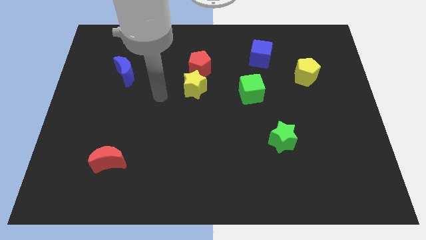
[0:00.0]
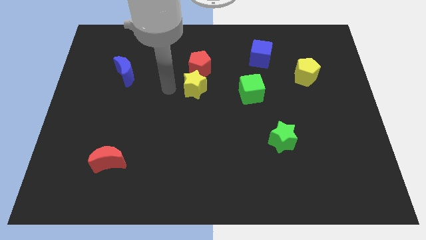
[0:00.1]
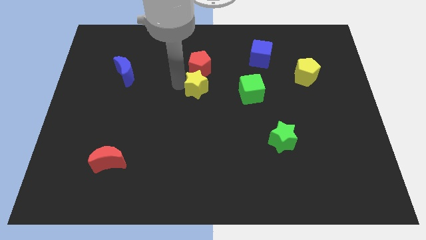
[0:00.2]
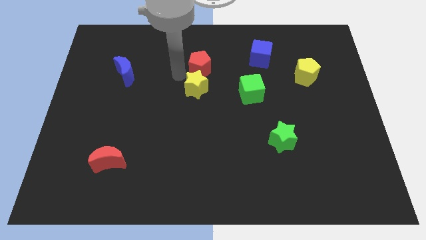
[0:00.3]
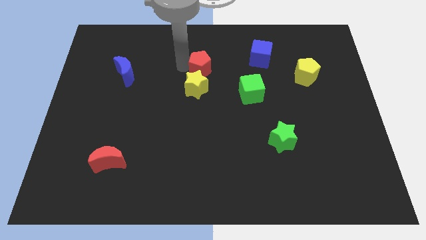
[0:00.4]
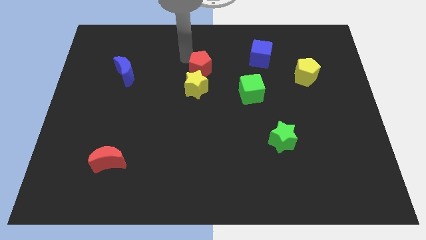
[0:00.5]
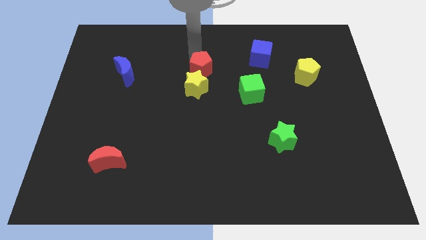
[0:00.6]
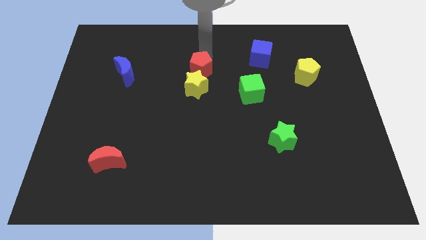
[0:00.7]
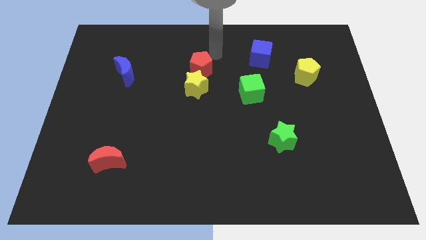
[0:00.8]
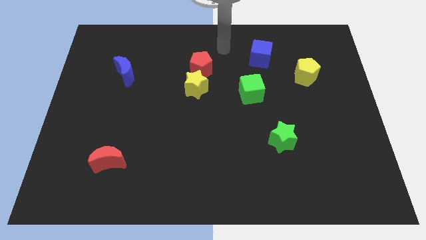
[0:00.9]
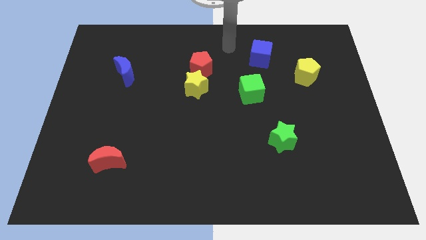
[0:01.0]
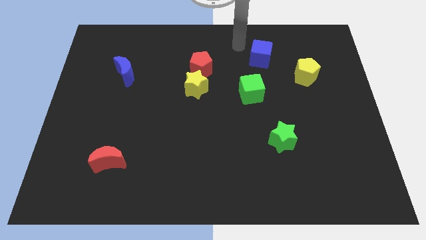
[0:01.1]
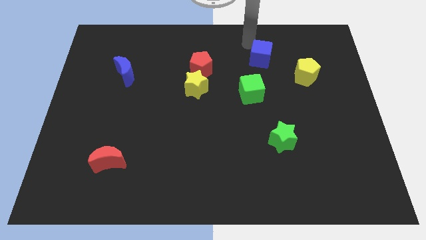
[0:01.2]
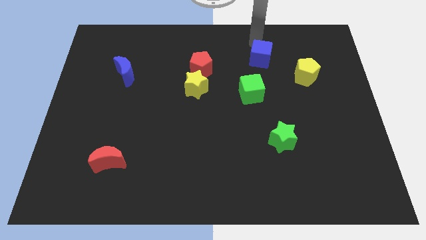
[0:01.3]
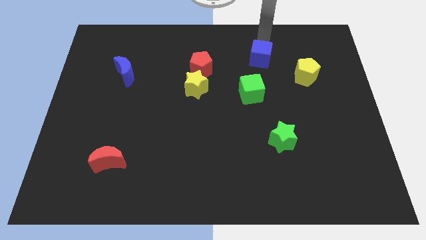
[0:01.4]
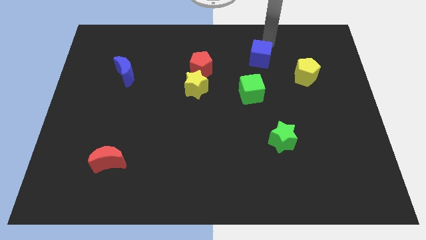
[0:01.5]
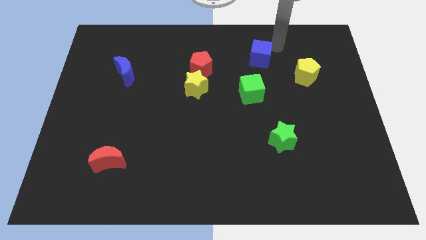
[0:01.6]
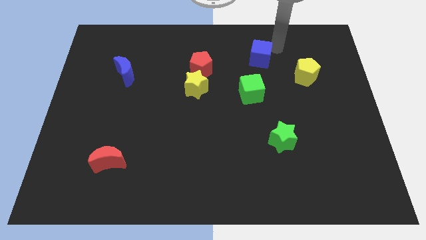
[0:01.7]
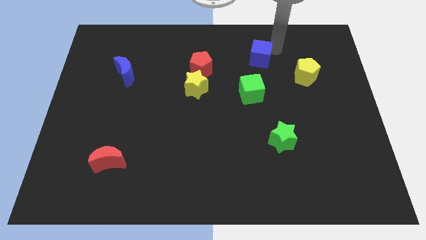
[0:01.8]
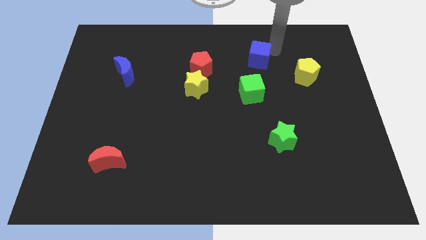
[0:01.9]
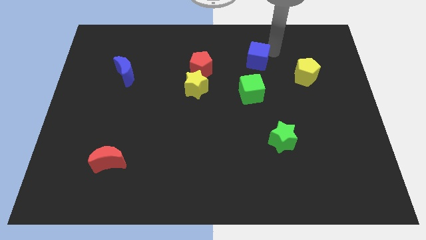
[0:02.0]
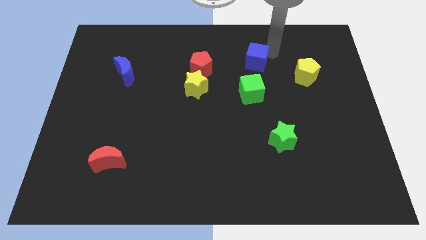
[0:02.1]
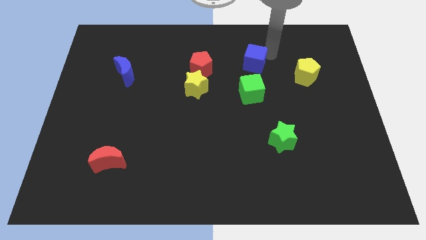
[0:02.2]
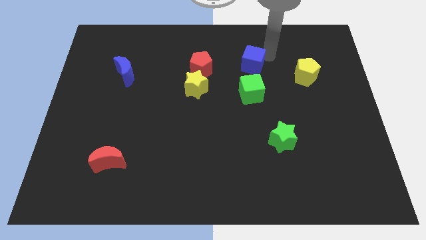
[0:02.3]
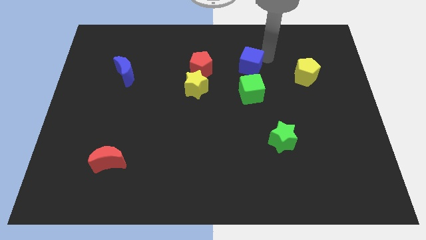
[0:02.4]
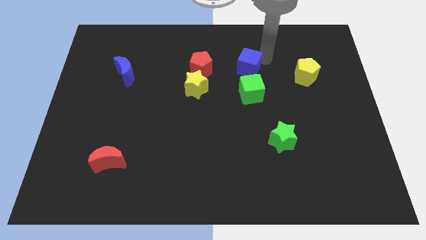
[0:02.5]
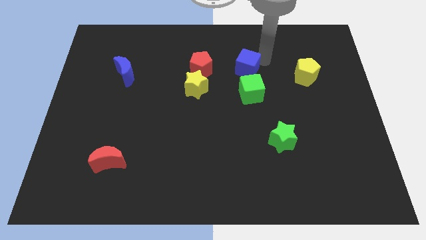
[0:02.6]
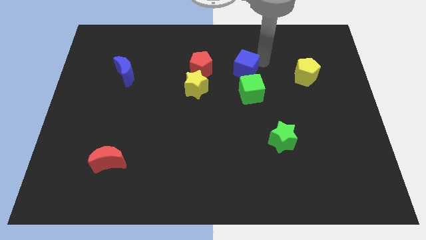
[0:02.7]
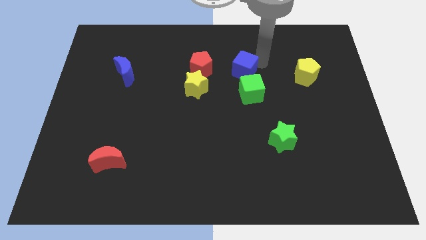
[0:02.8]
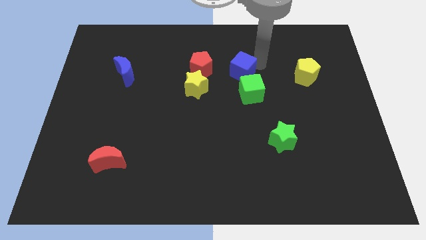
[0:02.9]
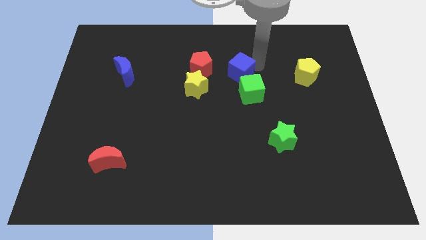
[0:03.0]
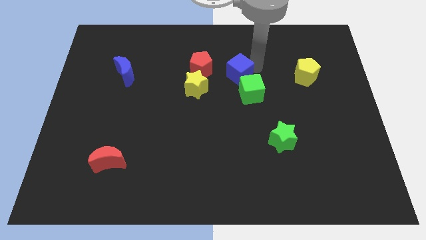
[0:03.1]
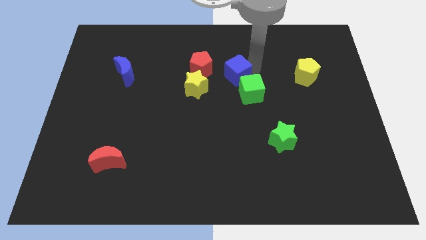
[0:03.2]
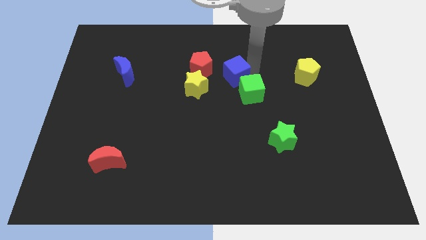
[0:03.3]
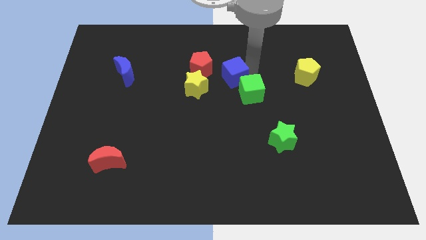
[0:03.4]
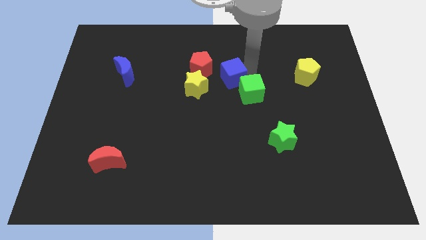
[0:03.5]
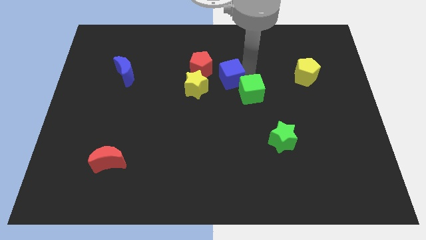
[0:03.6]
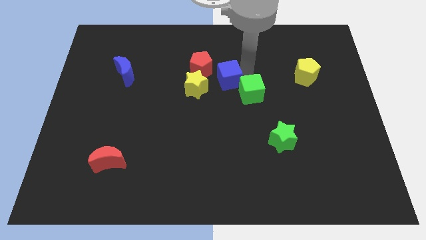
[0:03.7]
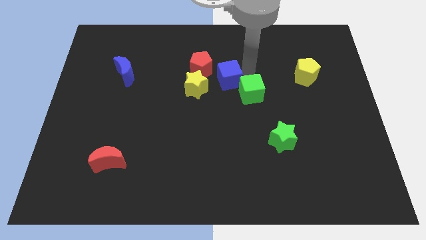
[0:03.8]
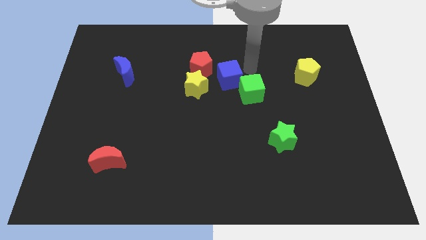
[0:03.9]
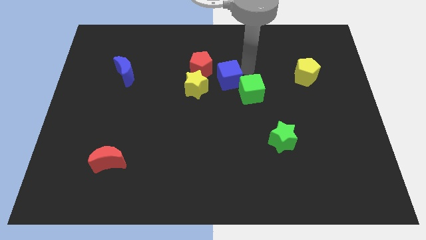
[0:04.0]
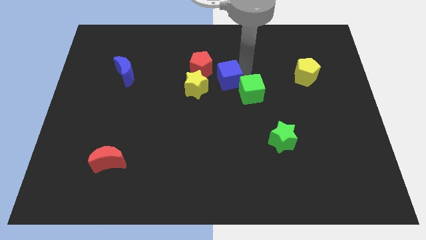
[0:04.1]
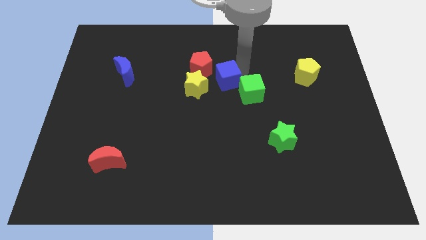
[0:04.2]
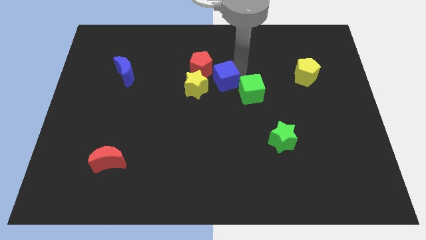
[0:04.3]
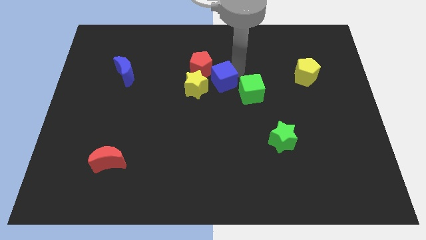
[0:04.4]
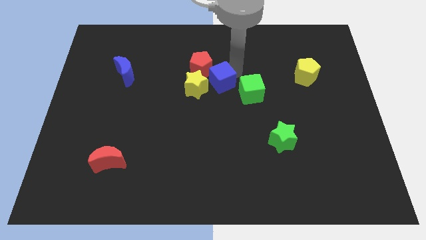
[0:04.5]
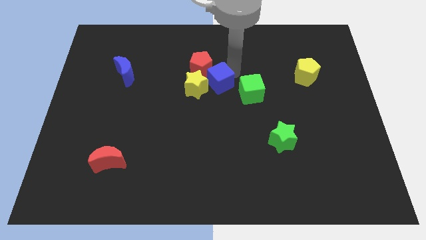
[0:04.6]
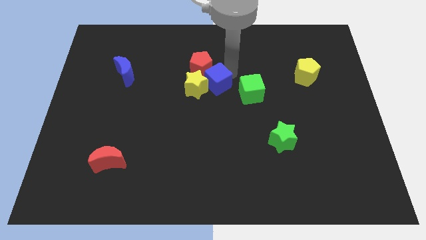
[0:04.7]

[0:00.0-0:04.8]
slide the blue cube next to the yellow star

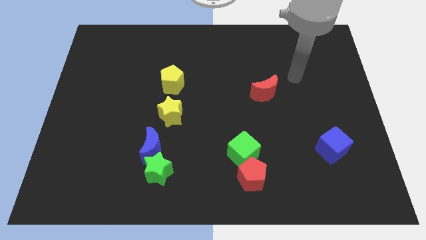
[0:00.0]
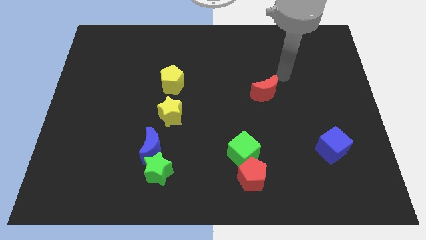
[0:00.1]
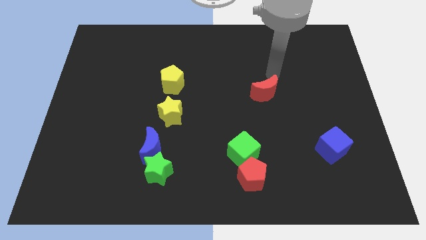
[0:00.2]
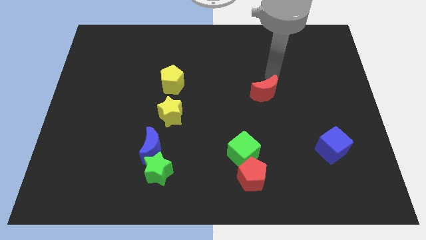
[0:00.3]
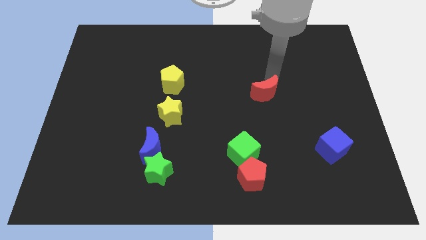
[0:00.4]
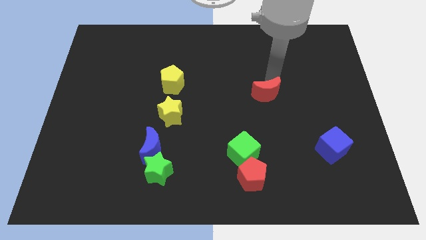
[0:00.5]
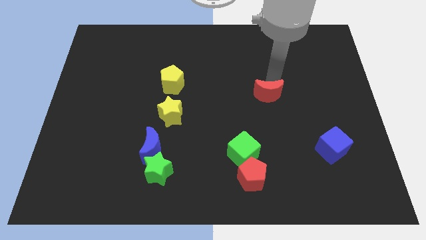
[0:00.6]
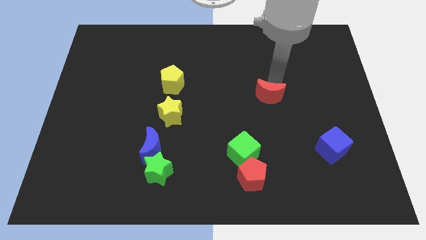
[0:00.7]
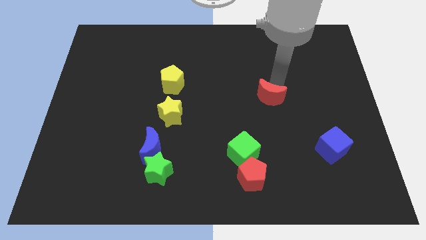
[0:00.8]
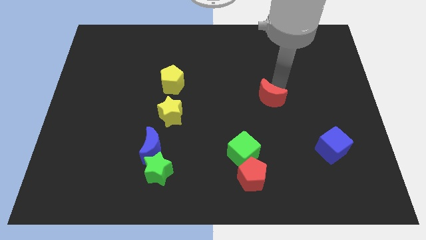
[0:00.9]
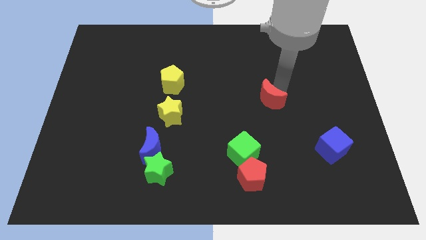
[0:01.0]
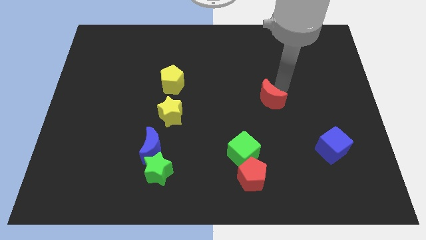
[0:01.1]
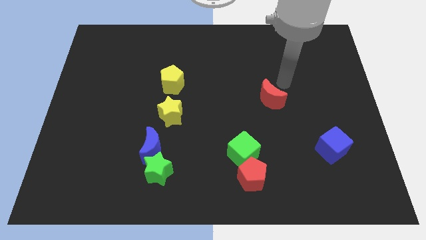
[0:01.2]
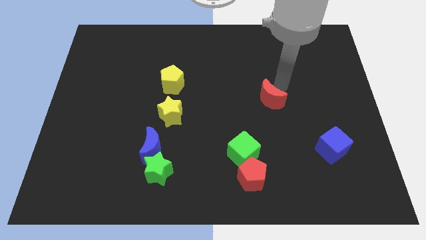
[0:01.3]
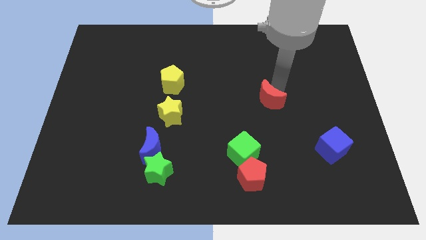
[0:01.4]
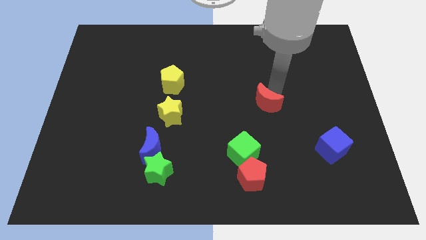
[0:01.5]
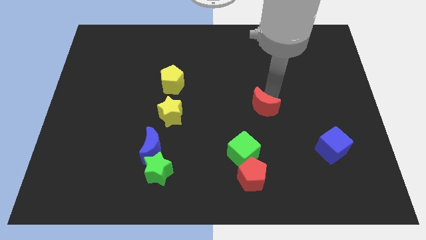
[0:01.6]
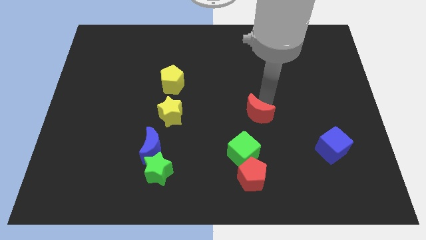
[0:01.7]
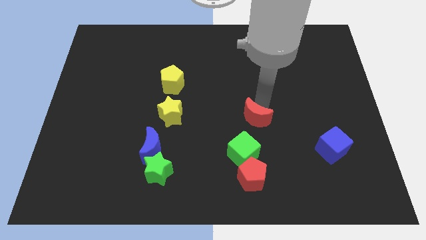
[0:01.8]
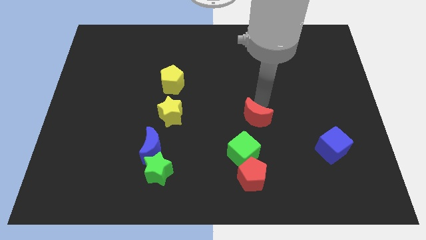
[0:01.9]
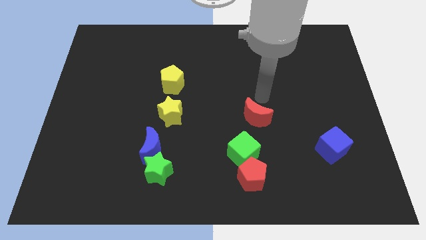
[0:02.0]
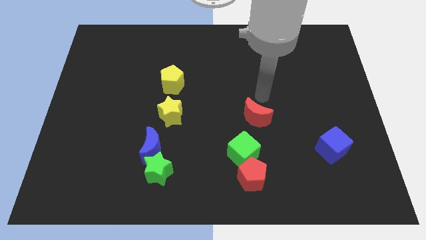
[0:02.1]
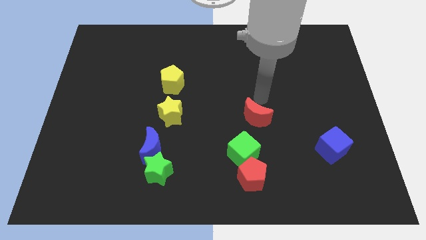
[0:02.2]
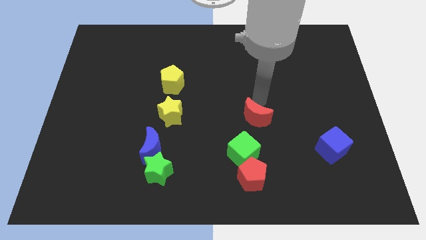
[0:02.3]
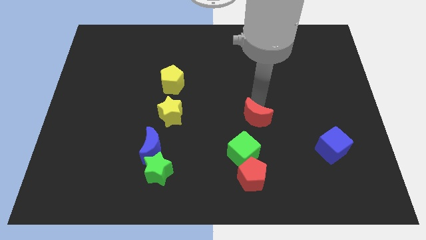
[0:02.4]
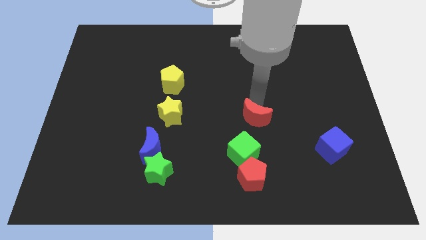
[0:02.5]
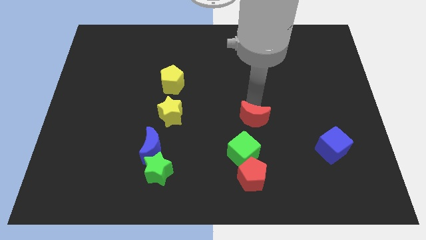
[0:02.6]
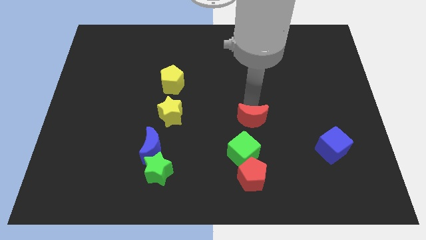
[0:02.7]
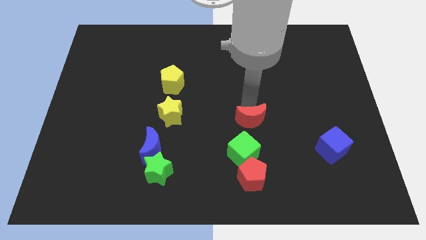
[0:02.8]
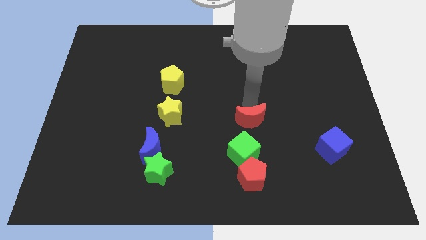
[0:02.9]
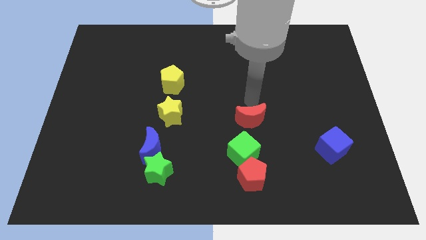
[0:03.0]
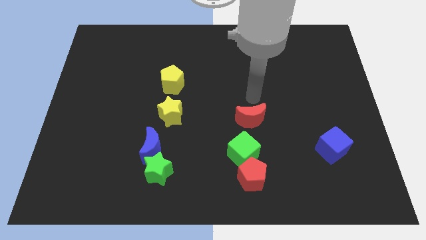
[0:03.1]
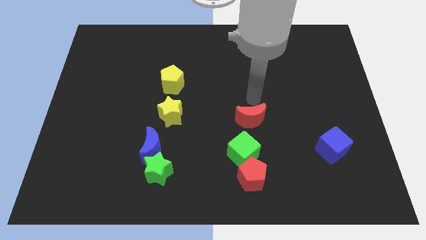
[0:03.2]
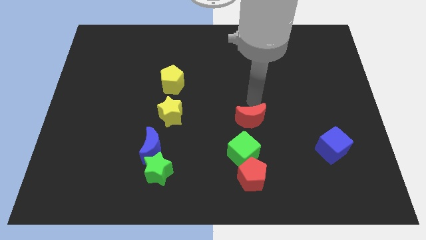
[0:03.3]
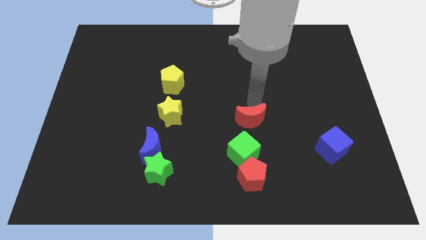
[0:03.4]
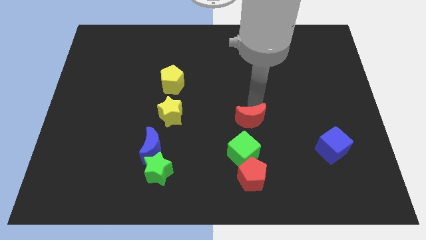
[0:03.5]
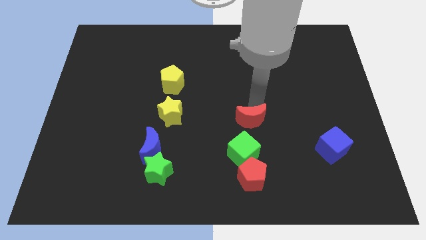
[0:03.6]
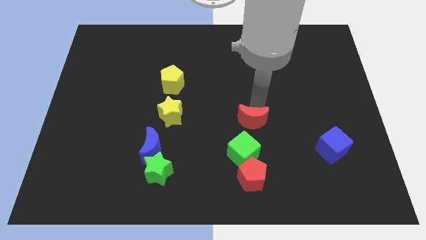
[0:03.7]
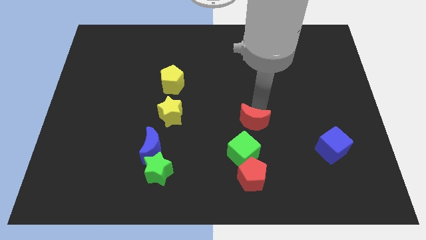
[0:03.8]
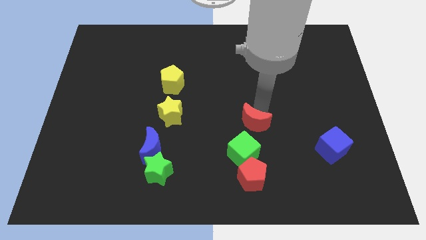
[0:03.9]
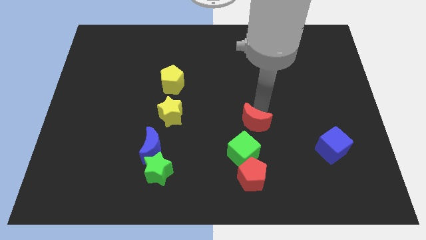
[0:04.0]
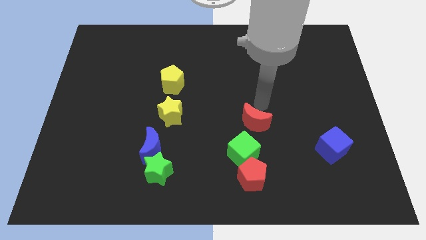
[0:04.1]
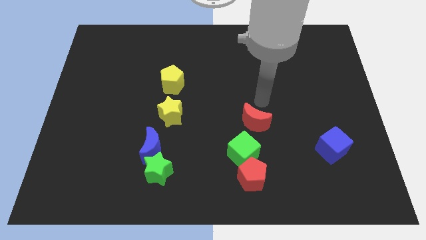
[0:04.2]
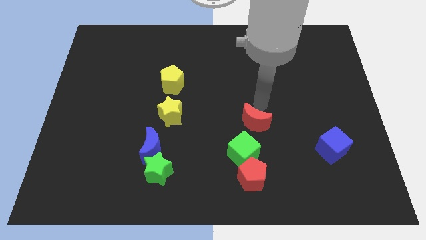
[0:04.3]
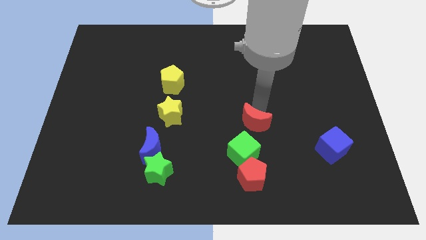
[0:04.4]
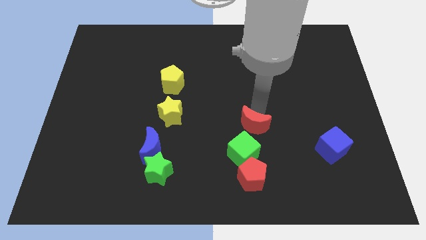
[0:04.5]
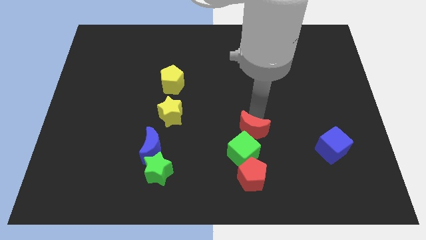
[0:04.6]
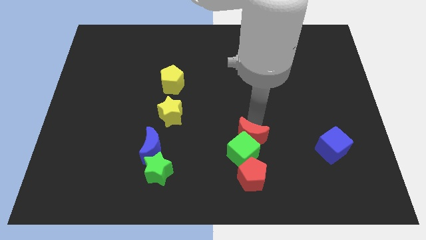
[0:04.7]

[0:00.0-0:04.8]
push the red moon close to the green cube
